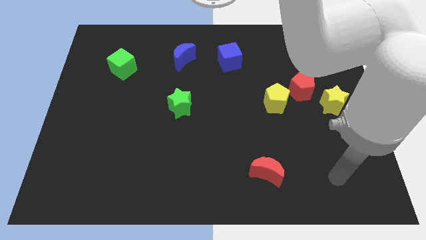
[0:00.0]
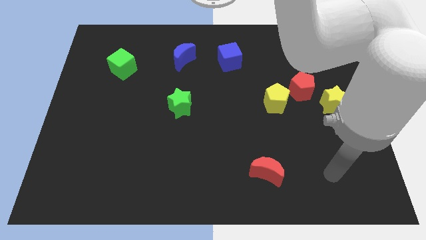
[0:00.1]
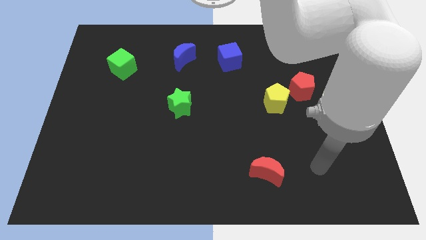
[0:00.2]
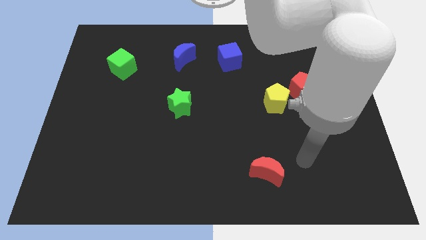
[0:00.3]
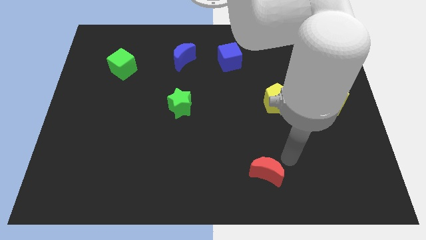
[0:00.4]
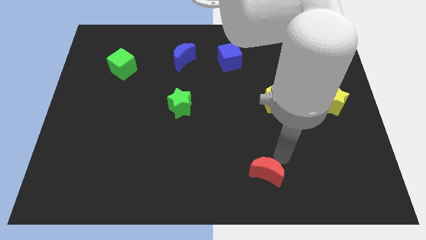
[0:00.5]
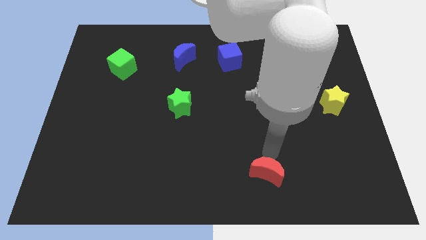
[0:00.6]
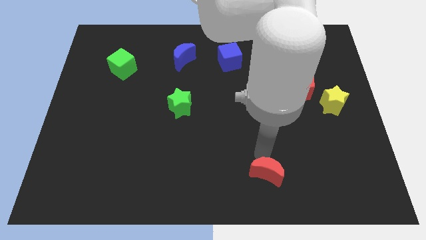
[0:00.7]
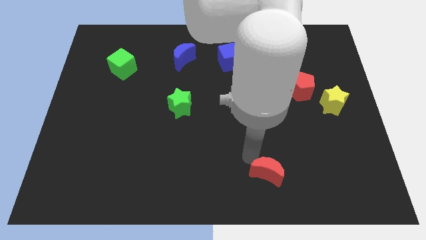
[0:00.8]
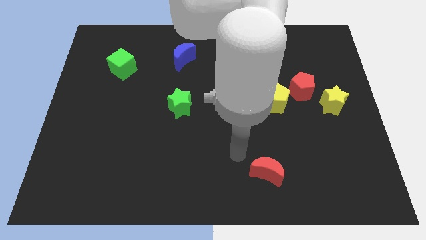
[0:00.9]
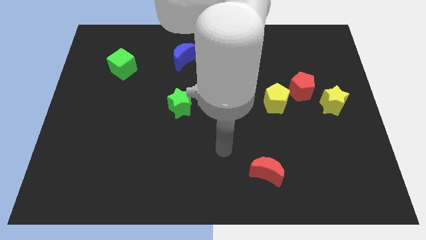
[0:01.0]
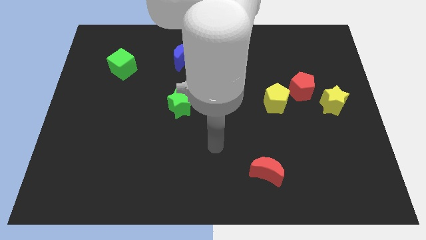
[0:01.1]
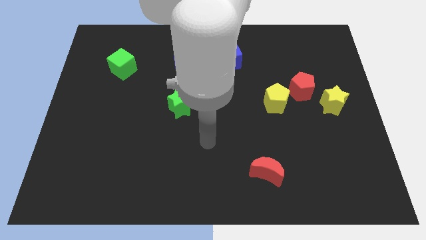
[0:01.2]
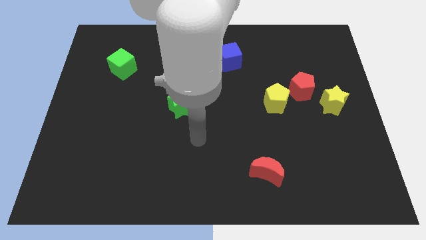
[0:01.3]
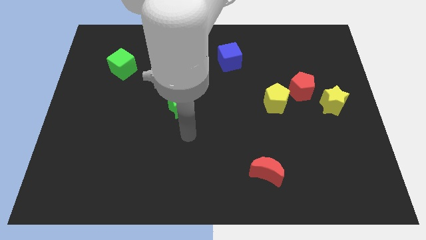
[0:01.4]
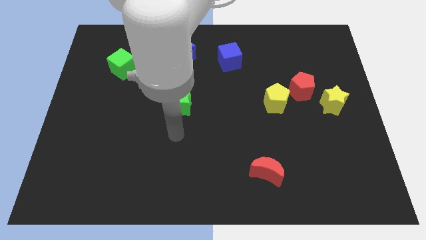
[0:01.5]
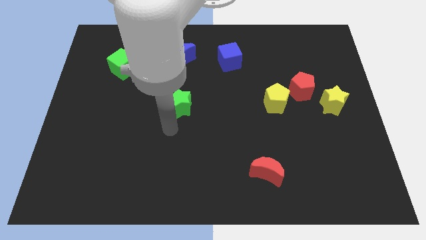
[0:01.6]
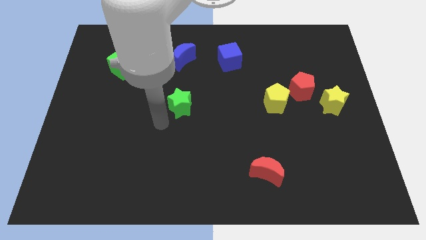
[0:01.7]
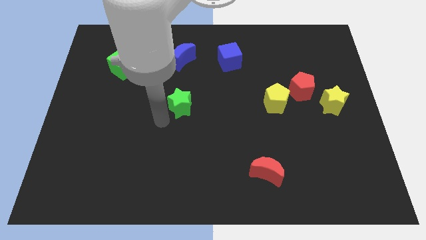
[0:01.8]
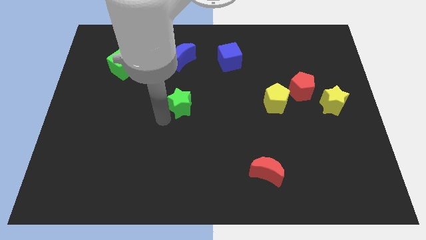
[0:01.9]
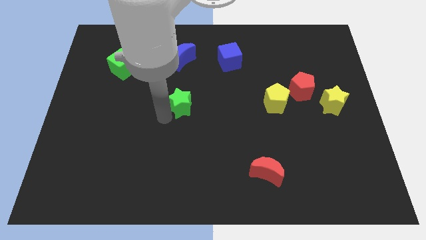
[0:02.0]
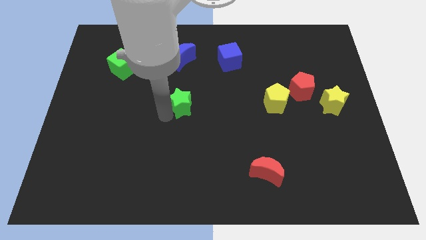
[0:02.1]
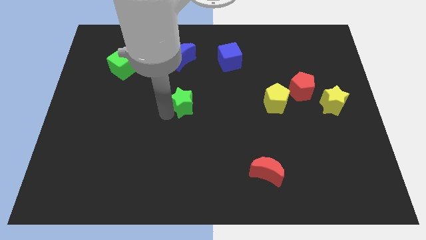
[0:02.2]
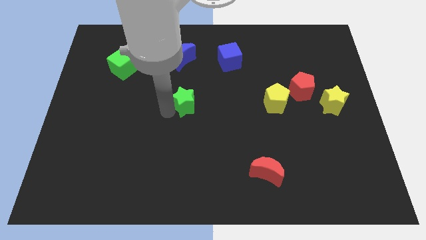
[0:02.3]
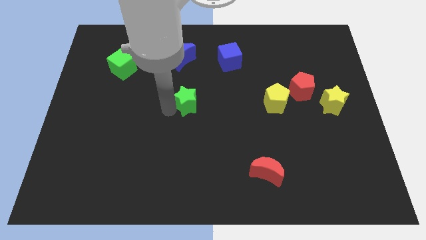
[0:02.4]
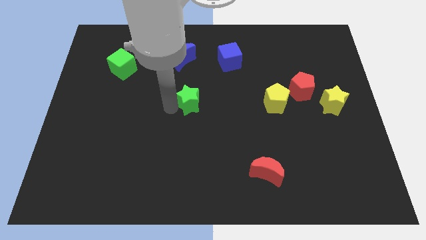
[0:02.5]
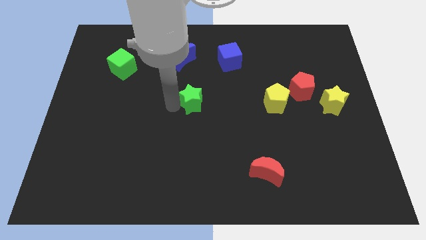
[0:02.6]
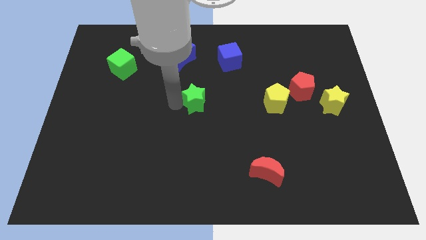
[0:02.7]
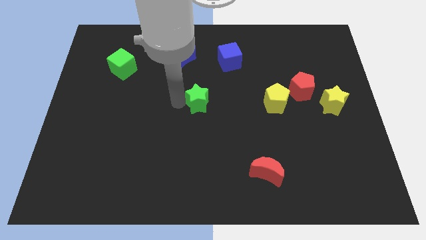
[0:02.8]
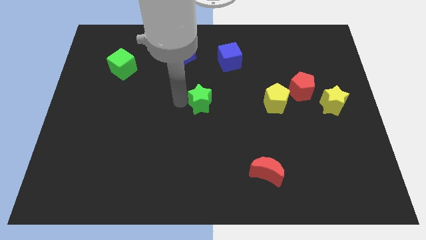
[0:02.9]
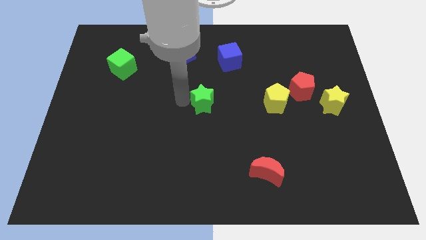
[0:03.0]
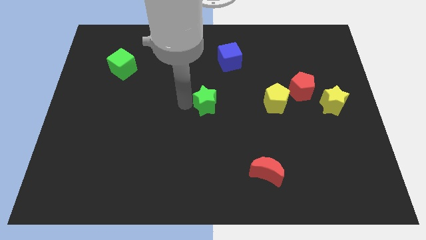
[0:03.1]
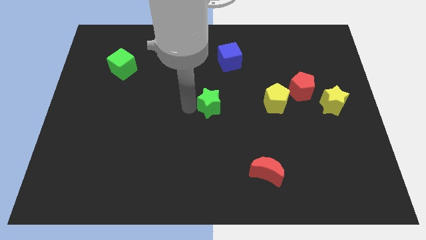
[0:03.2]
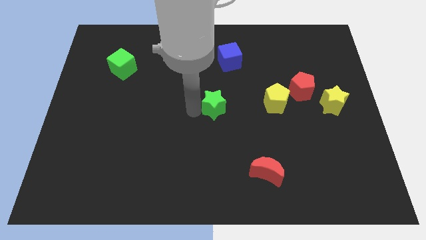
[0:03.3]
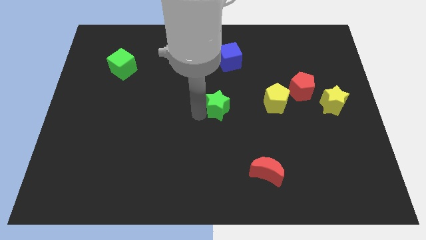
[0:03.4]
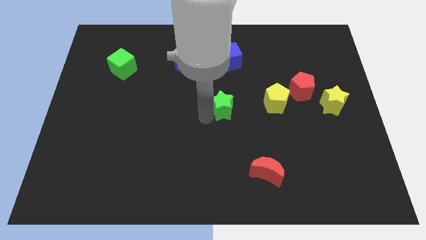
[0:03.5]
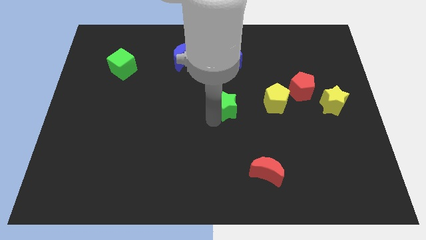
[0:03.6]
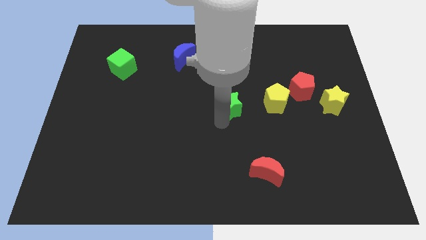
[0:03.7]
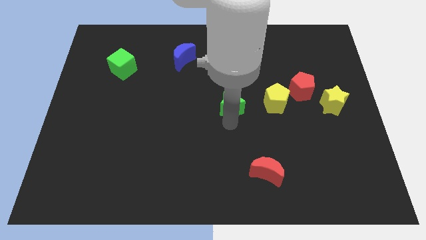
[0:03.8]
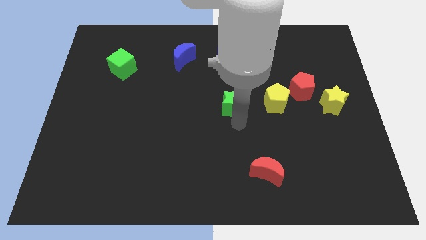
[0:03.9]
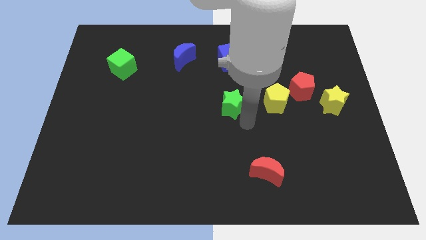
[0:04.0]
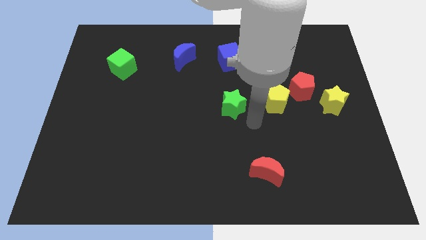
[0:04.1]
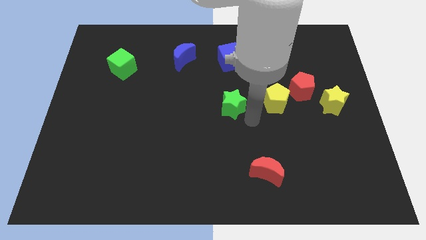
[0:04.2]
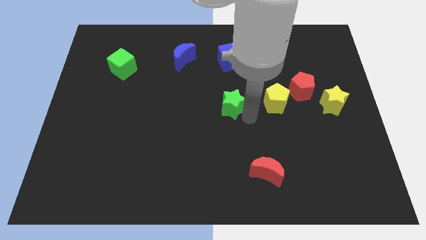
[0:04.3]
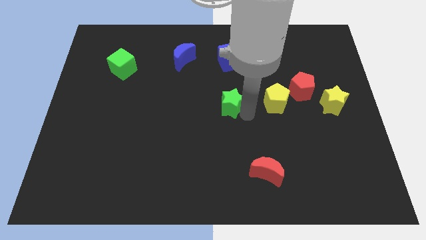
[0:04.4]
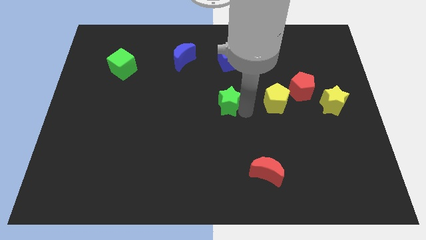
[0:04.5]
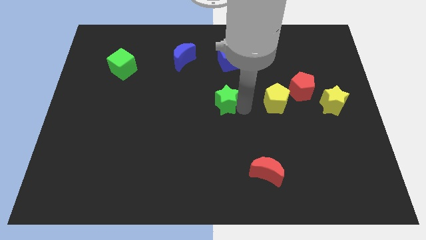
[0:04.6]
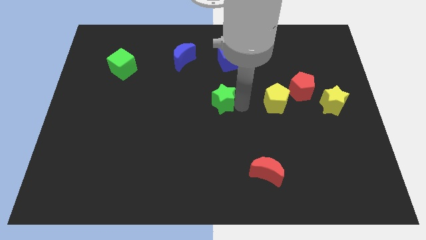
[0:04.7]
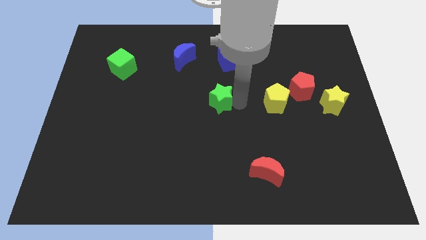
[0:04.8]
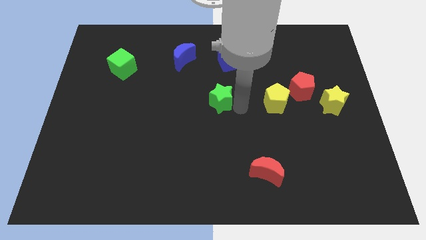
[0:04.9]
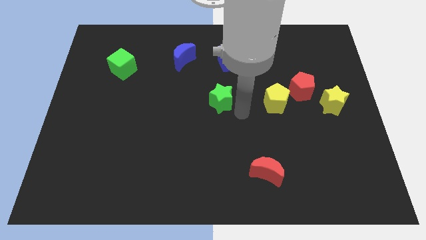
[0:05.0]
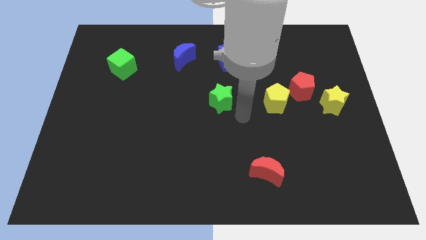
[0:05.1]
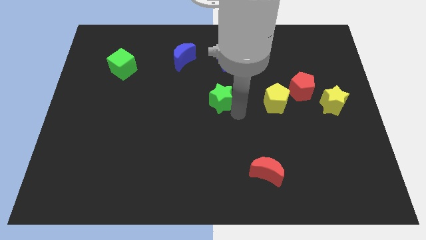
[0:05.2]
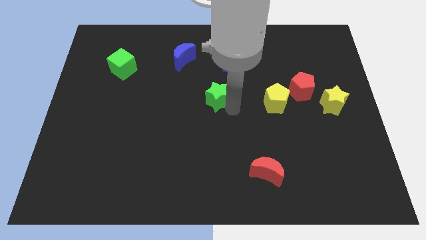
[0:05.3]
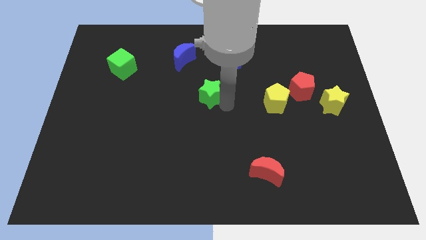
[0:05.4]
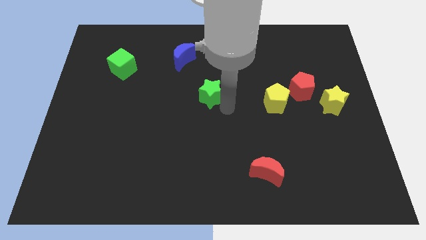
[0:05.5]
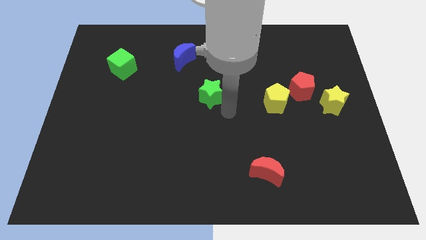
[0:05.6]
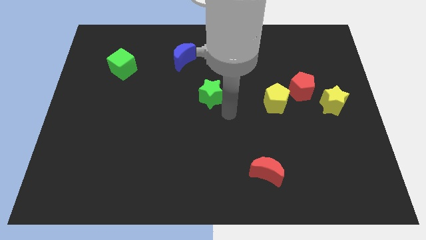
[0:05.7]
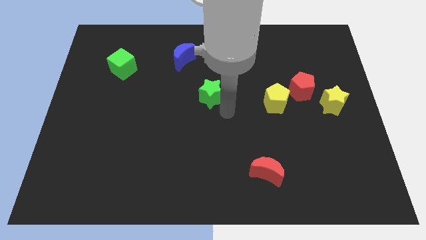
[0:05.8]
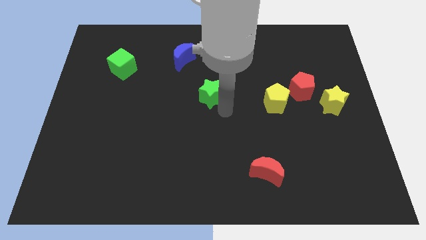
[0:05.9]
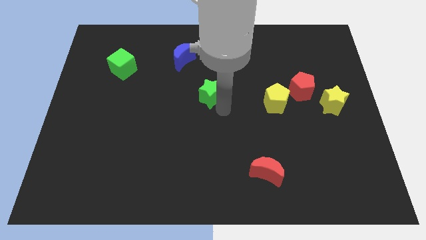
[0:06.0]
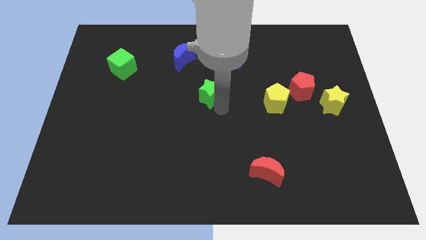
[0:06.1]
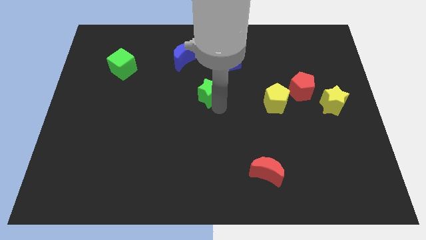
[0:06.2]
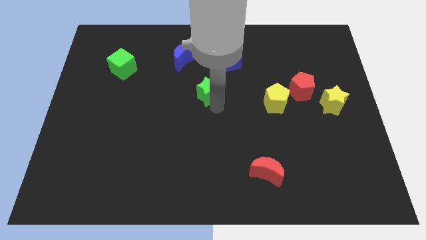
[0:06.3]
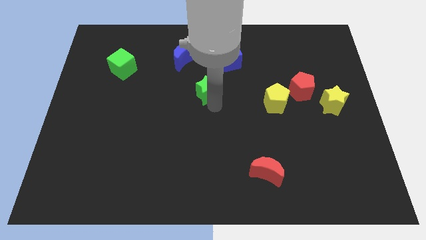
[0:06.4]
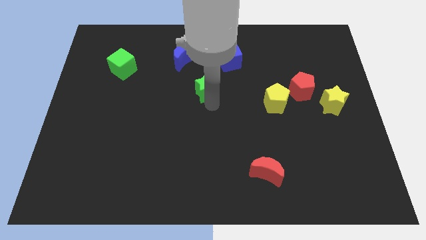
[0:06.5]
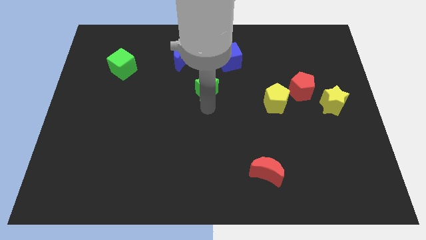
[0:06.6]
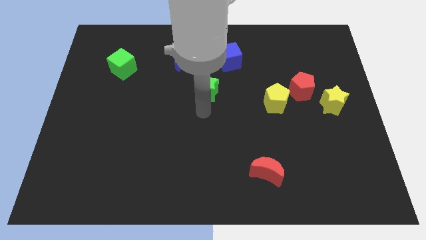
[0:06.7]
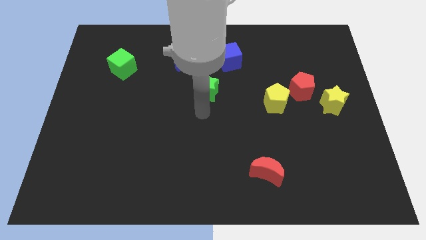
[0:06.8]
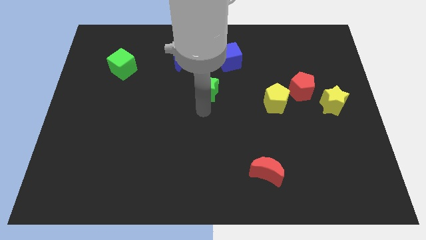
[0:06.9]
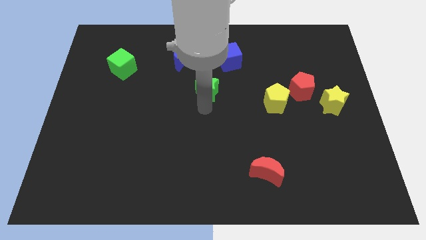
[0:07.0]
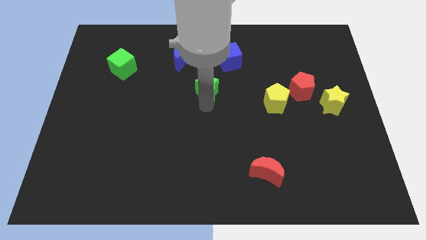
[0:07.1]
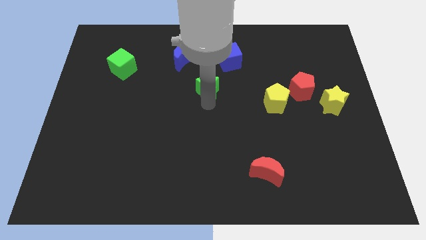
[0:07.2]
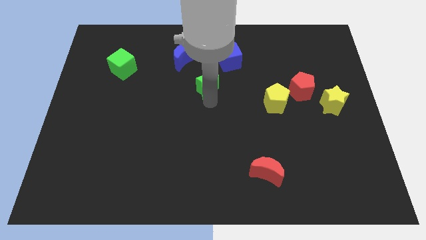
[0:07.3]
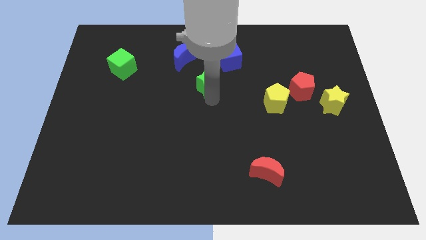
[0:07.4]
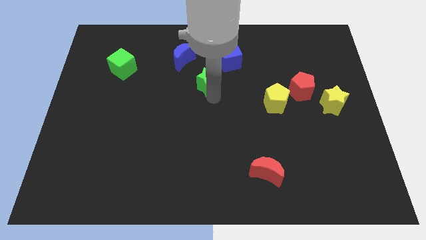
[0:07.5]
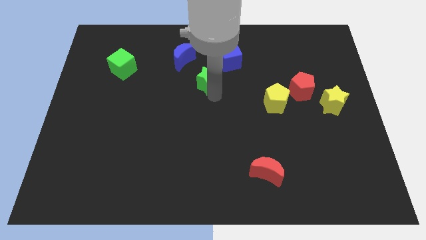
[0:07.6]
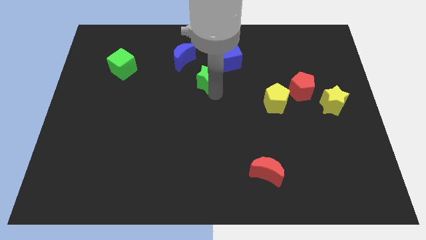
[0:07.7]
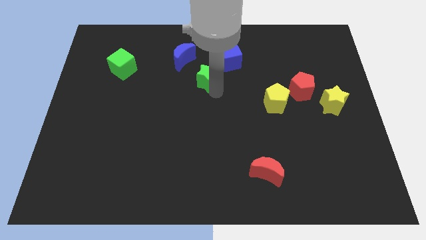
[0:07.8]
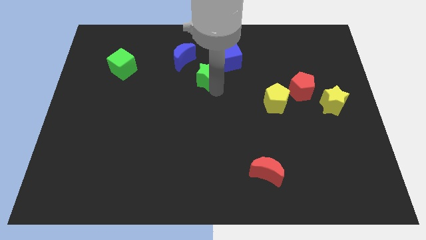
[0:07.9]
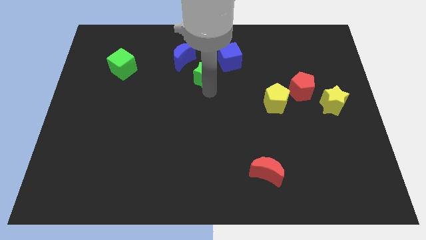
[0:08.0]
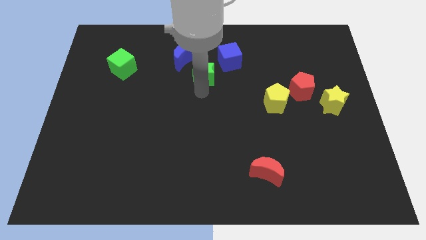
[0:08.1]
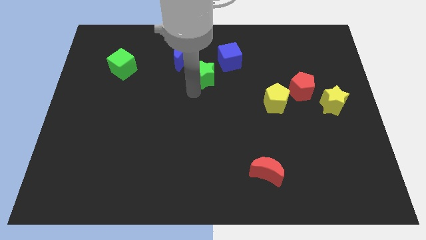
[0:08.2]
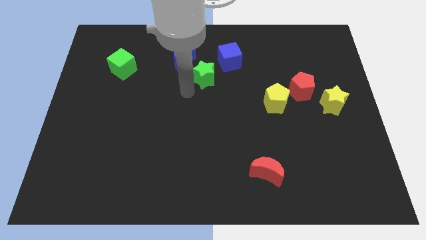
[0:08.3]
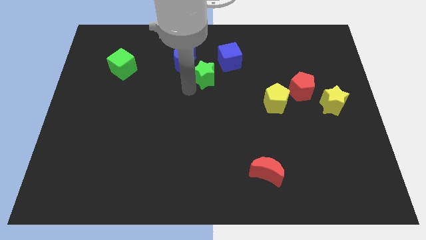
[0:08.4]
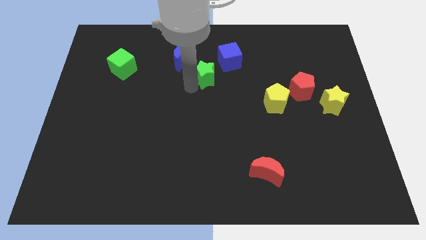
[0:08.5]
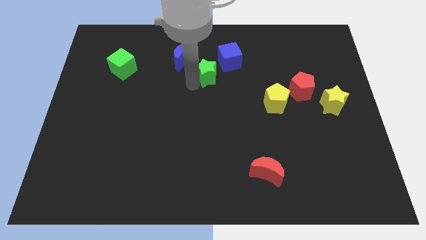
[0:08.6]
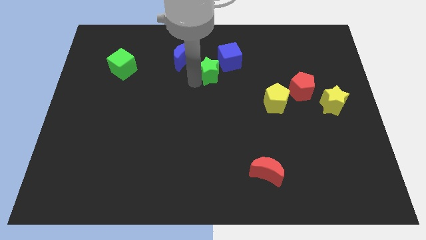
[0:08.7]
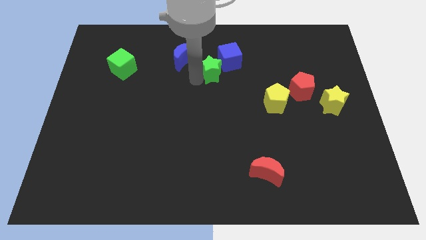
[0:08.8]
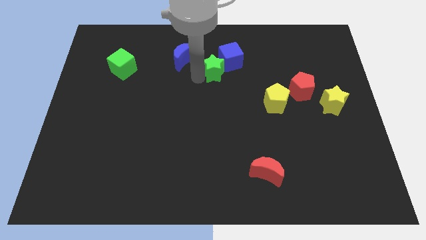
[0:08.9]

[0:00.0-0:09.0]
push the green star close to the blue cube
